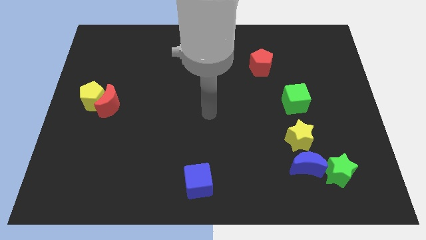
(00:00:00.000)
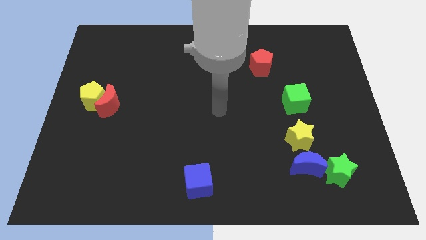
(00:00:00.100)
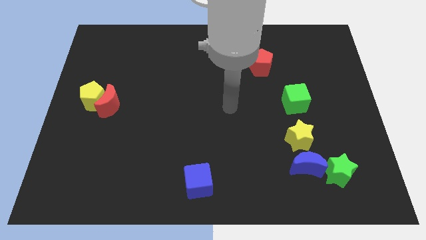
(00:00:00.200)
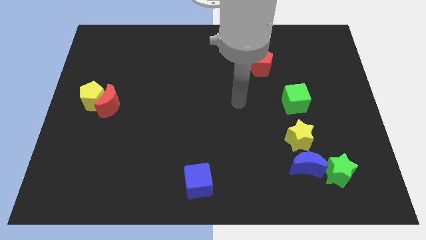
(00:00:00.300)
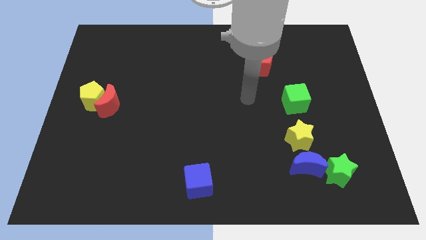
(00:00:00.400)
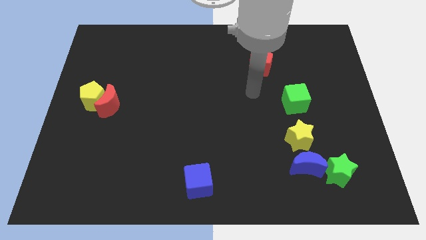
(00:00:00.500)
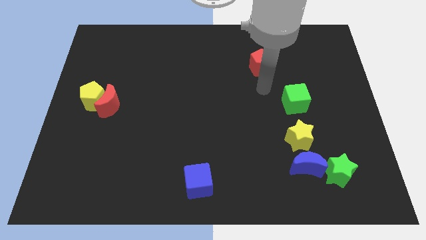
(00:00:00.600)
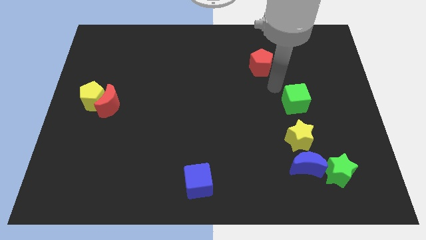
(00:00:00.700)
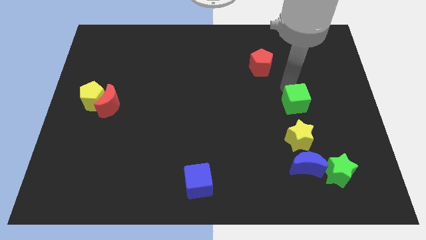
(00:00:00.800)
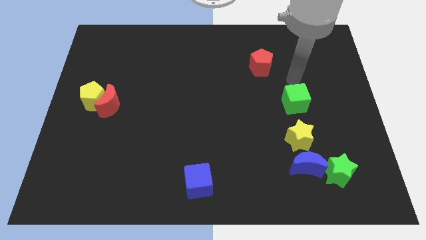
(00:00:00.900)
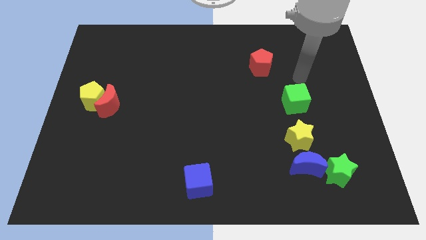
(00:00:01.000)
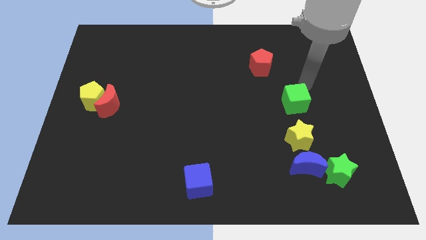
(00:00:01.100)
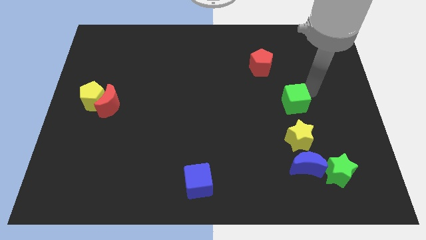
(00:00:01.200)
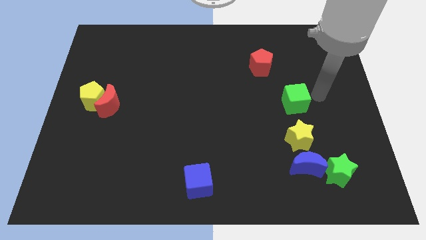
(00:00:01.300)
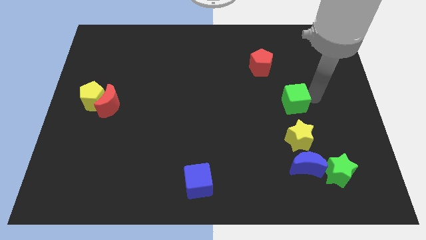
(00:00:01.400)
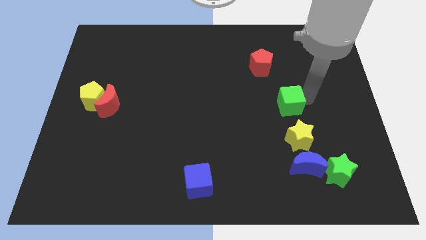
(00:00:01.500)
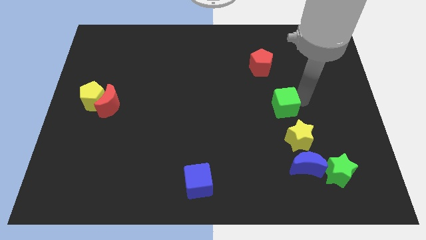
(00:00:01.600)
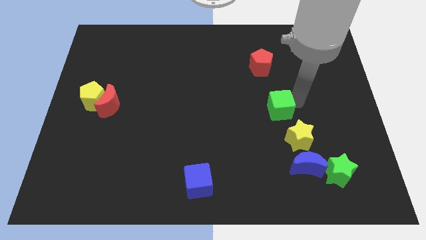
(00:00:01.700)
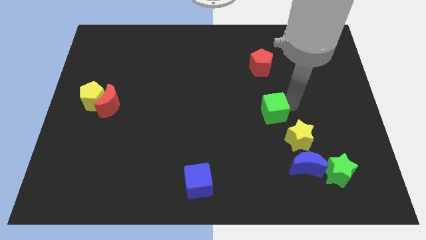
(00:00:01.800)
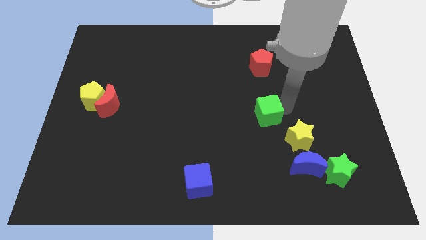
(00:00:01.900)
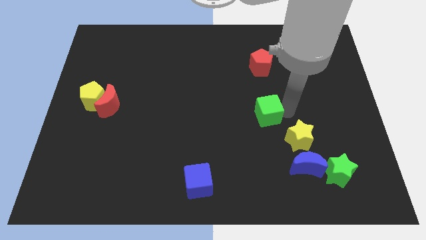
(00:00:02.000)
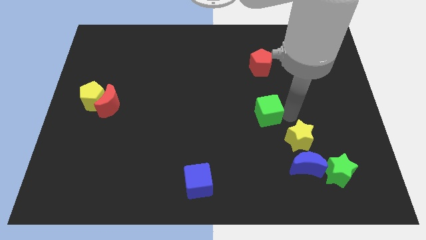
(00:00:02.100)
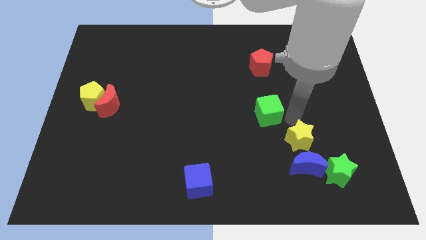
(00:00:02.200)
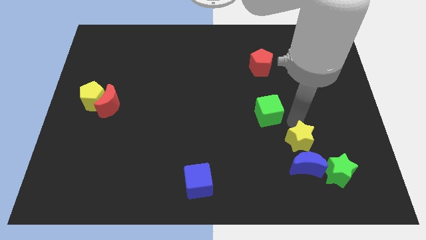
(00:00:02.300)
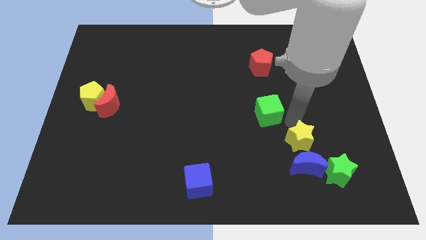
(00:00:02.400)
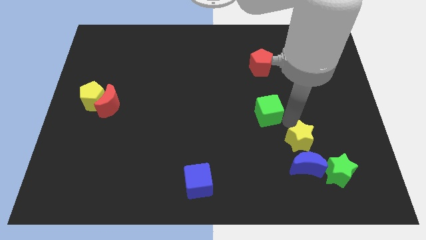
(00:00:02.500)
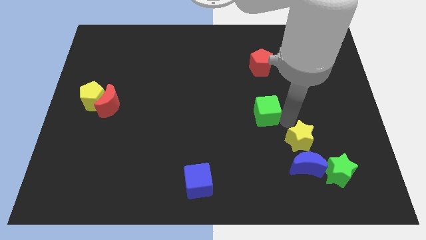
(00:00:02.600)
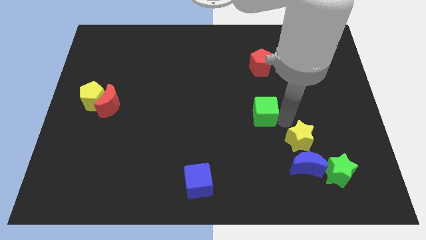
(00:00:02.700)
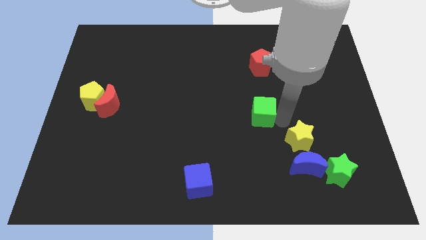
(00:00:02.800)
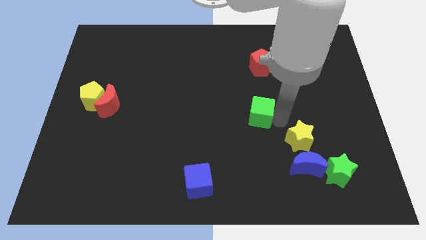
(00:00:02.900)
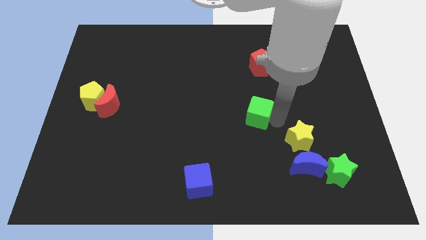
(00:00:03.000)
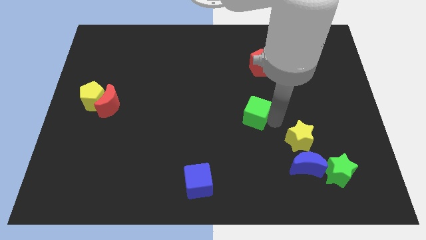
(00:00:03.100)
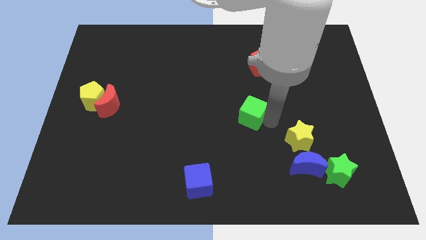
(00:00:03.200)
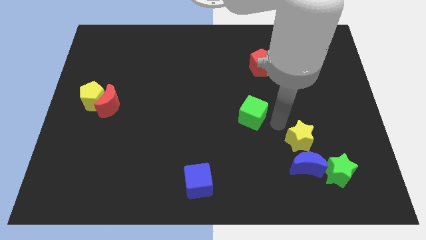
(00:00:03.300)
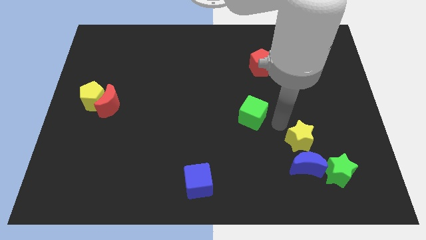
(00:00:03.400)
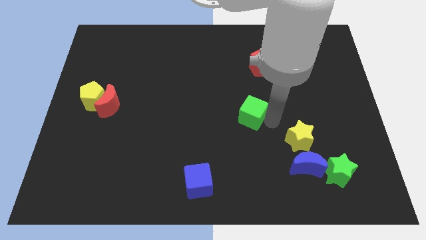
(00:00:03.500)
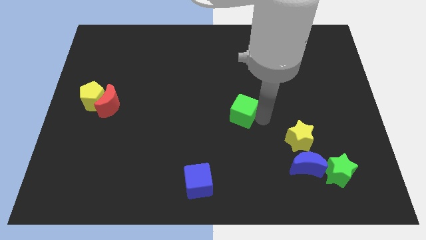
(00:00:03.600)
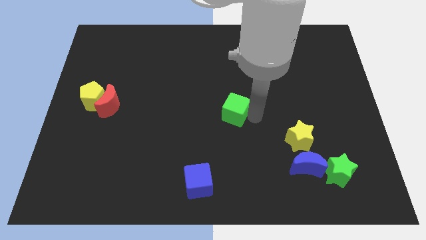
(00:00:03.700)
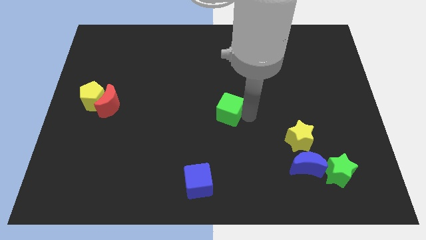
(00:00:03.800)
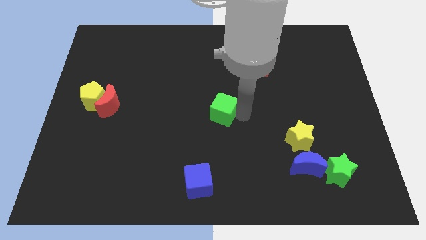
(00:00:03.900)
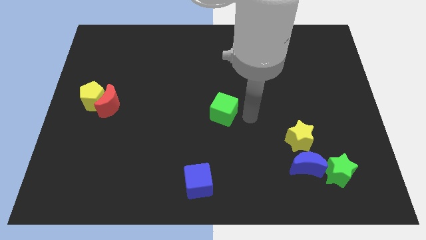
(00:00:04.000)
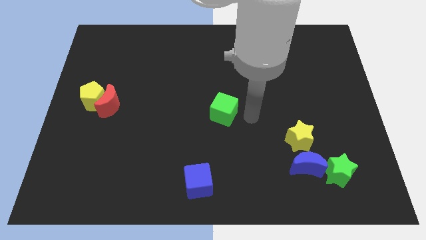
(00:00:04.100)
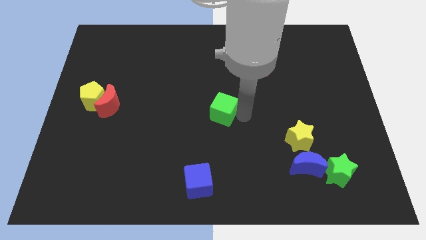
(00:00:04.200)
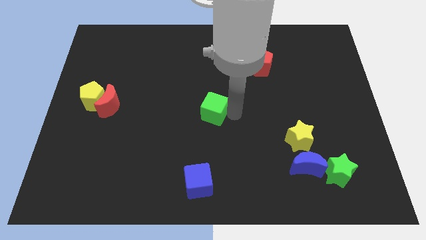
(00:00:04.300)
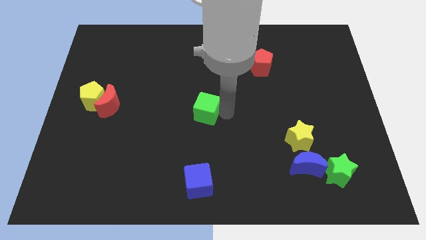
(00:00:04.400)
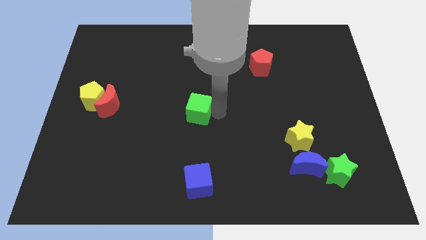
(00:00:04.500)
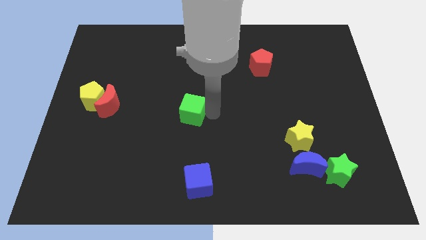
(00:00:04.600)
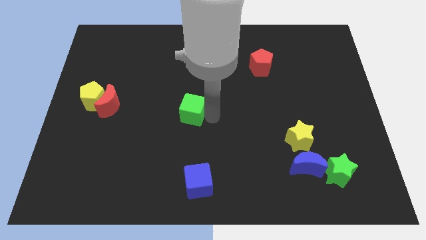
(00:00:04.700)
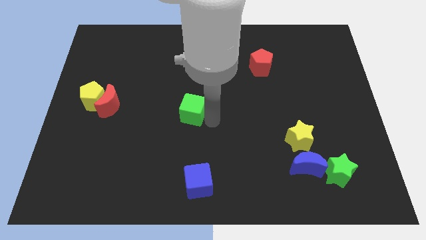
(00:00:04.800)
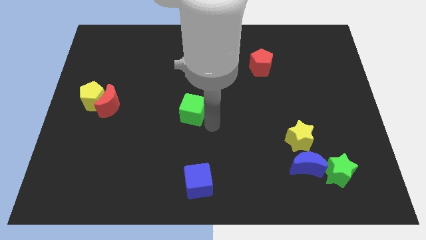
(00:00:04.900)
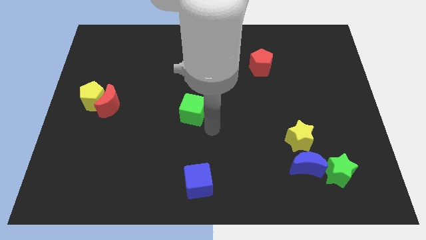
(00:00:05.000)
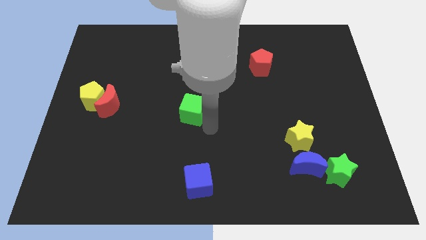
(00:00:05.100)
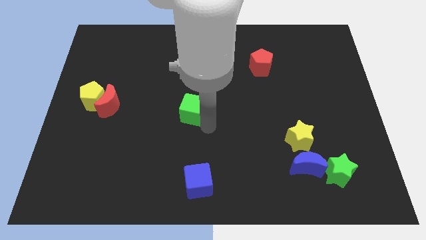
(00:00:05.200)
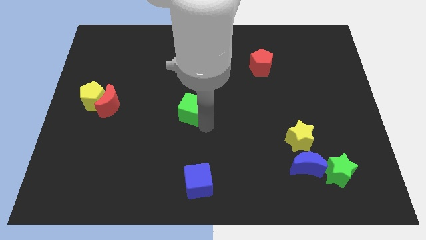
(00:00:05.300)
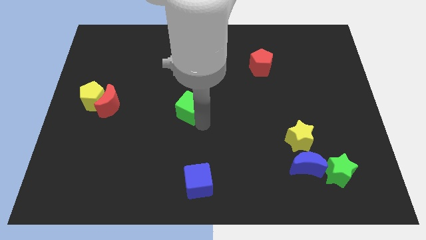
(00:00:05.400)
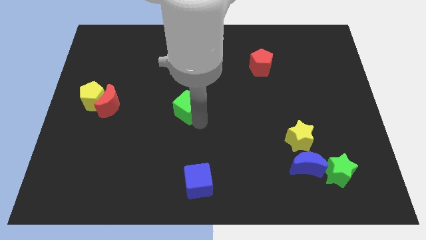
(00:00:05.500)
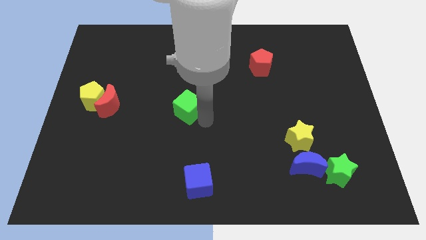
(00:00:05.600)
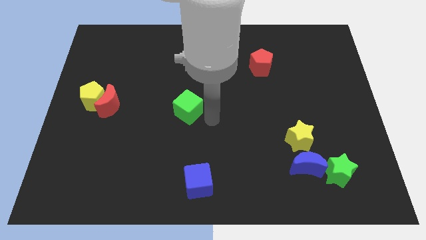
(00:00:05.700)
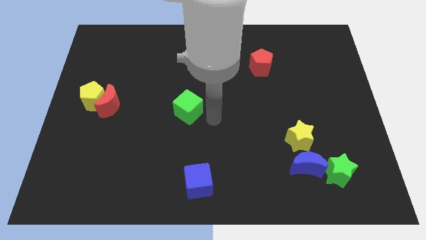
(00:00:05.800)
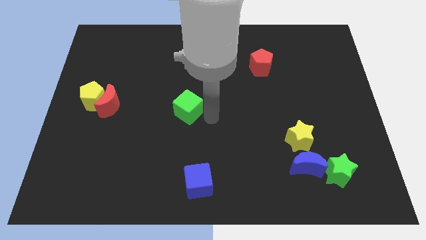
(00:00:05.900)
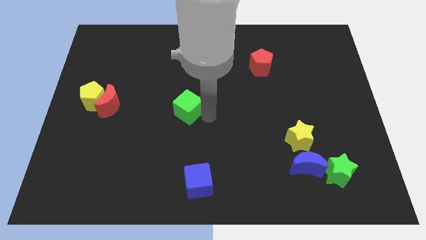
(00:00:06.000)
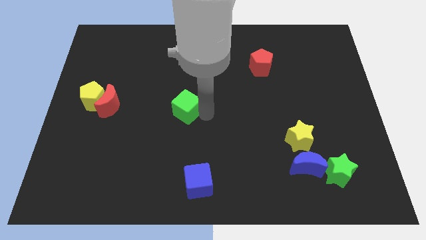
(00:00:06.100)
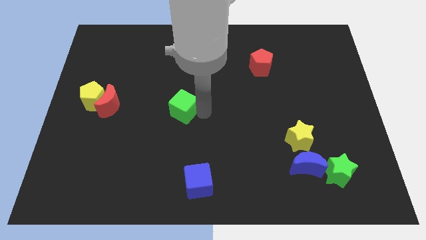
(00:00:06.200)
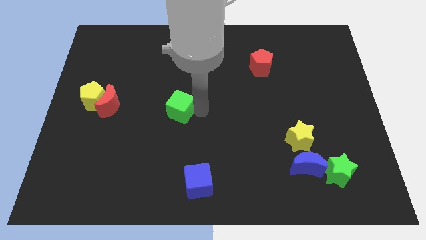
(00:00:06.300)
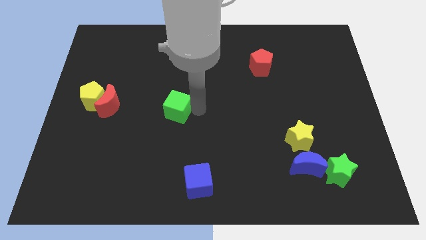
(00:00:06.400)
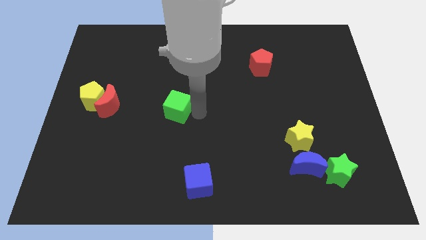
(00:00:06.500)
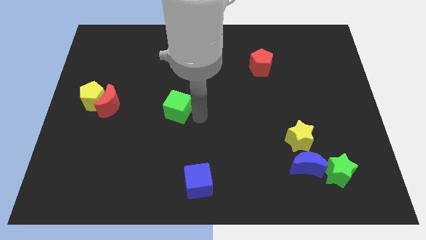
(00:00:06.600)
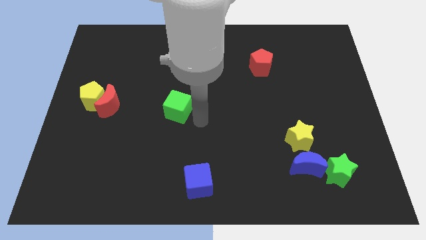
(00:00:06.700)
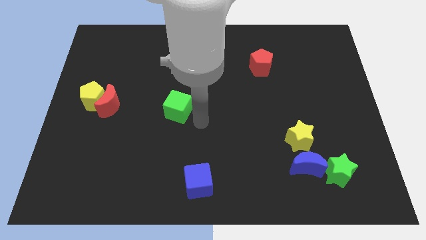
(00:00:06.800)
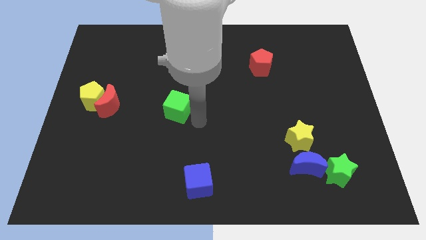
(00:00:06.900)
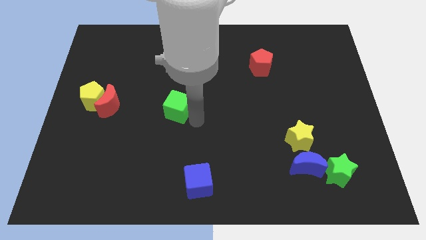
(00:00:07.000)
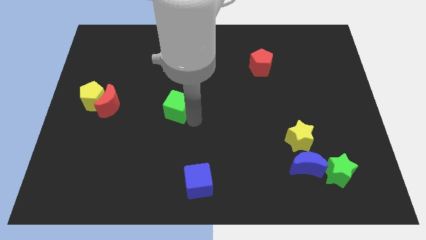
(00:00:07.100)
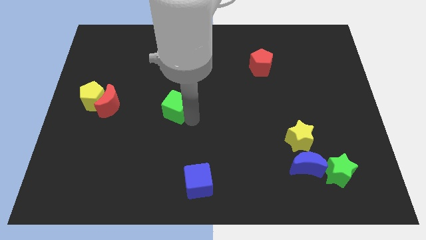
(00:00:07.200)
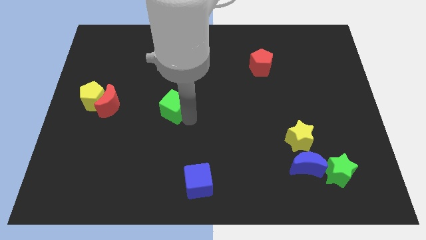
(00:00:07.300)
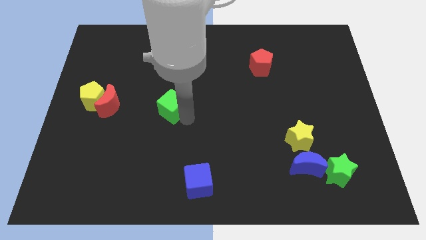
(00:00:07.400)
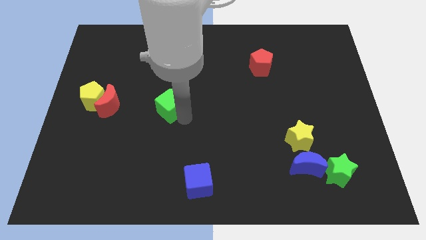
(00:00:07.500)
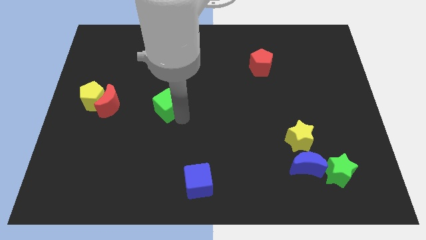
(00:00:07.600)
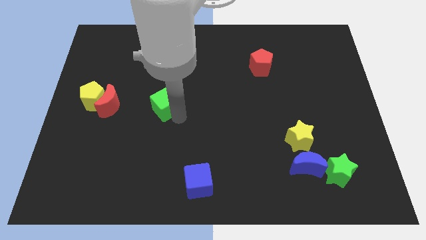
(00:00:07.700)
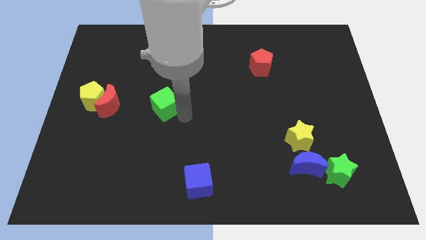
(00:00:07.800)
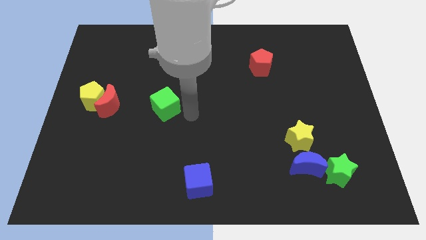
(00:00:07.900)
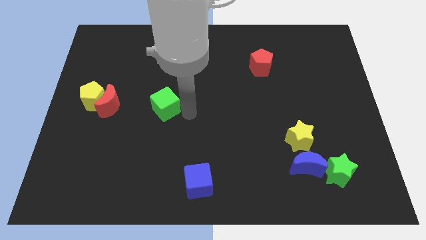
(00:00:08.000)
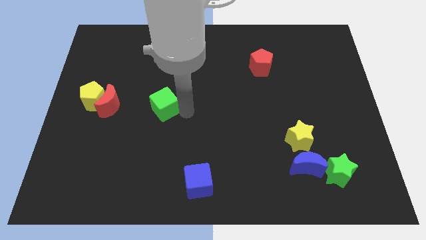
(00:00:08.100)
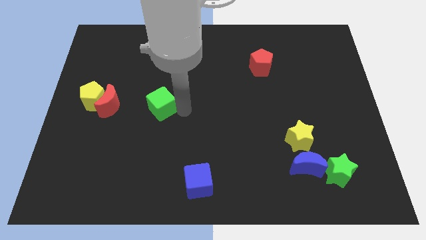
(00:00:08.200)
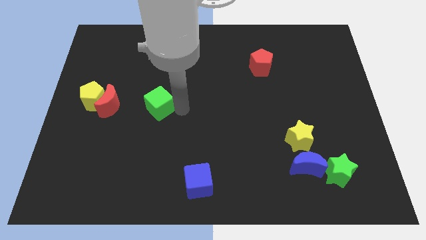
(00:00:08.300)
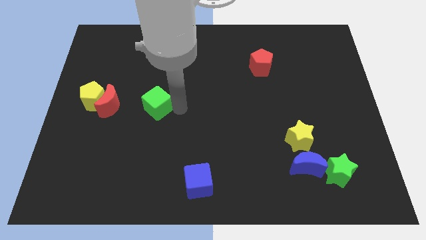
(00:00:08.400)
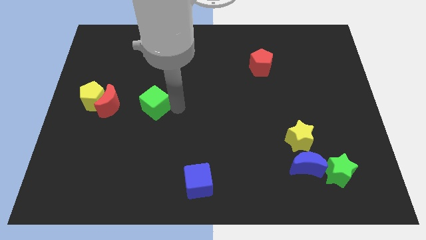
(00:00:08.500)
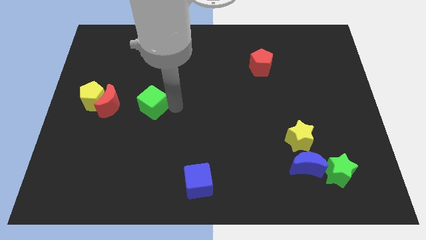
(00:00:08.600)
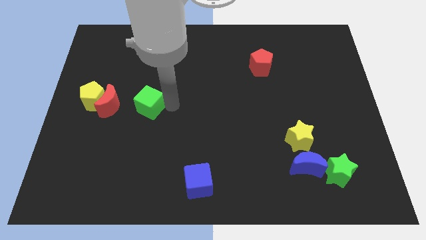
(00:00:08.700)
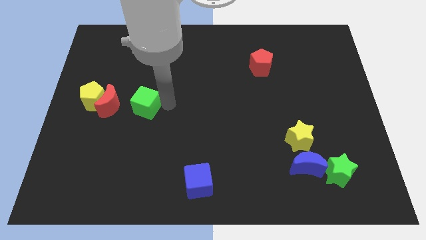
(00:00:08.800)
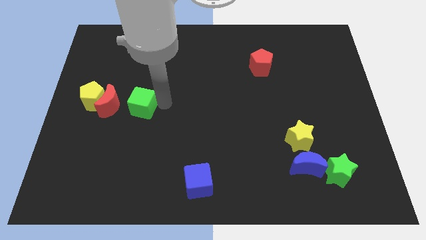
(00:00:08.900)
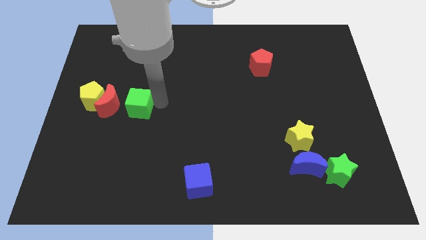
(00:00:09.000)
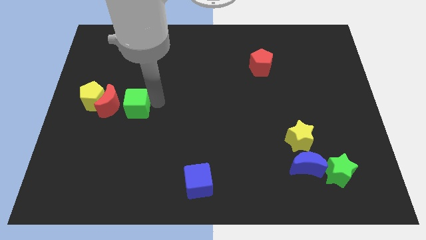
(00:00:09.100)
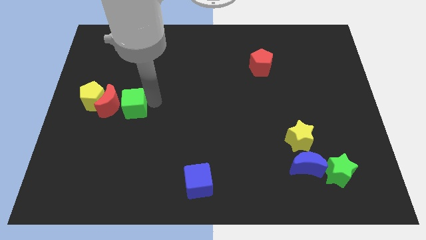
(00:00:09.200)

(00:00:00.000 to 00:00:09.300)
put the green cube next to the red moon
